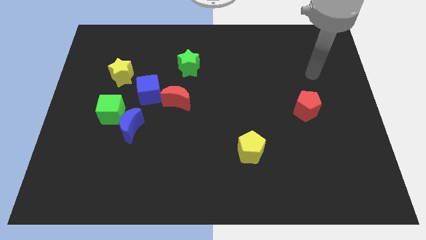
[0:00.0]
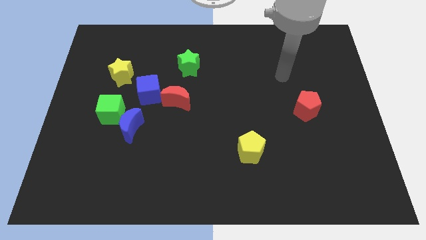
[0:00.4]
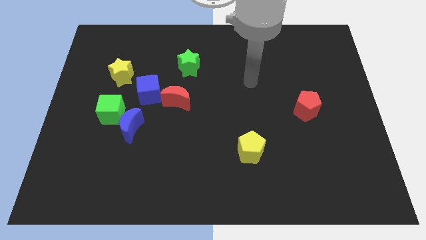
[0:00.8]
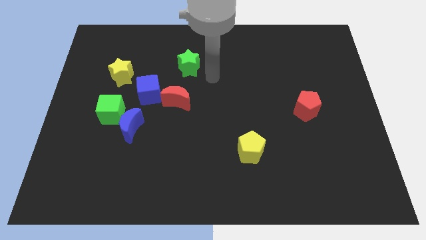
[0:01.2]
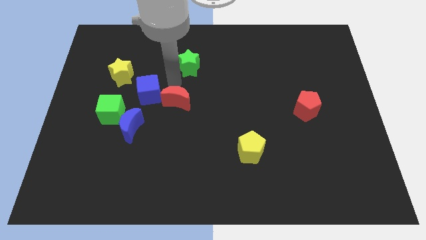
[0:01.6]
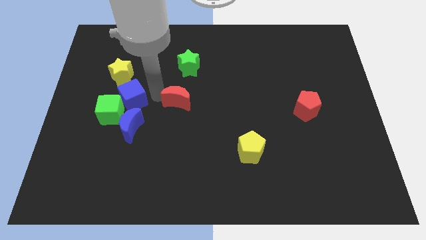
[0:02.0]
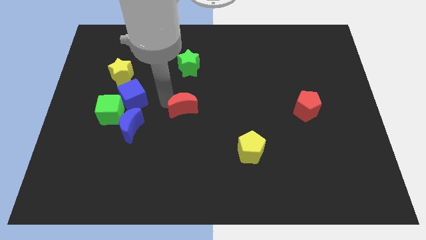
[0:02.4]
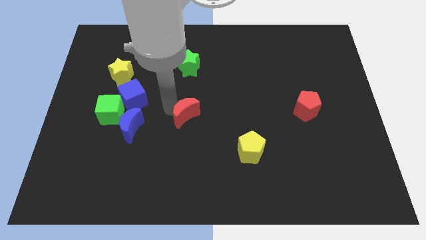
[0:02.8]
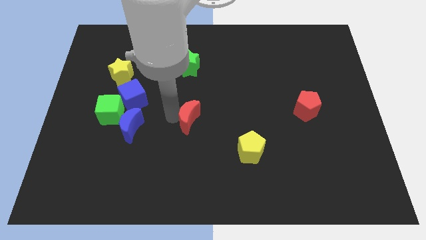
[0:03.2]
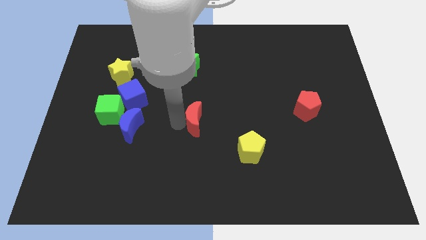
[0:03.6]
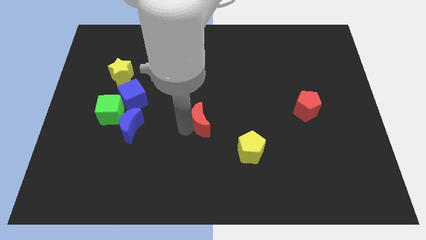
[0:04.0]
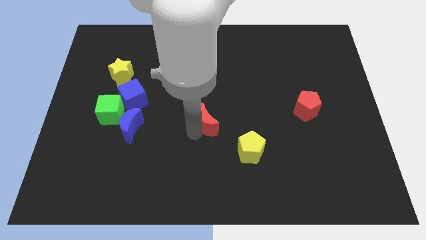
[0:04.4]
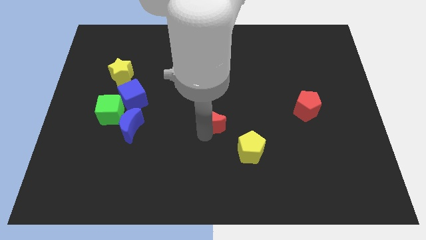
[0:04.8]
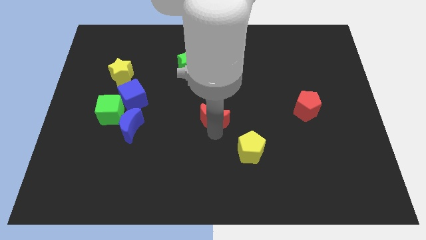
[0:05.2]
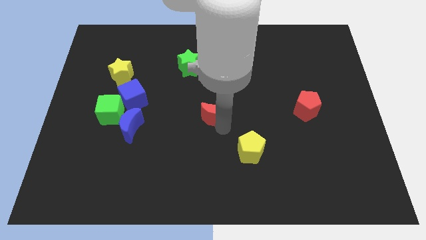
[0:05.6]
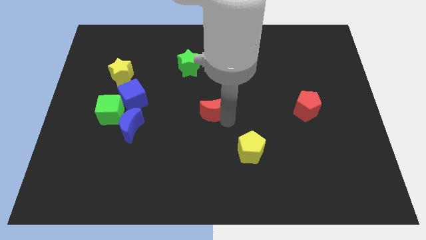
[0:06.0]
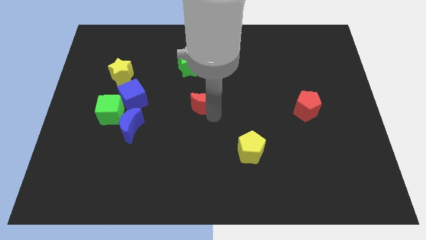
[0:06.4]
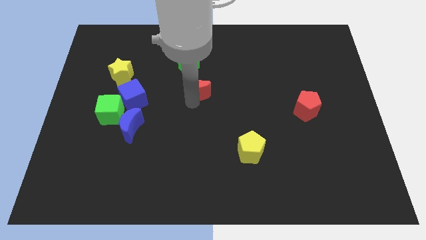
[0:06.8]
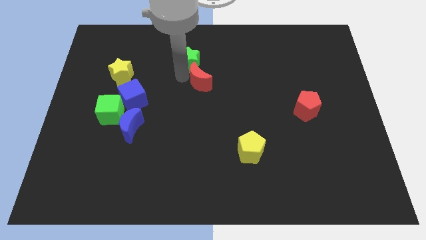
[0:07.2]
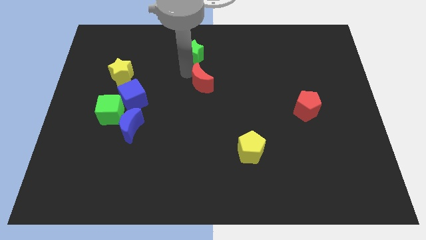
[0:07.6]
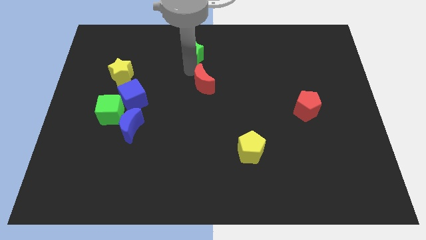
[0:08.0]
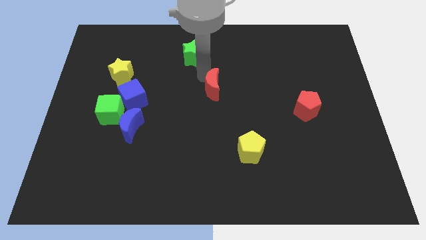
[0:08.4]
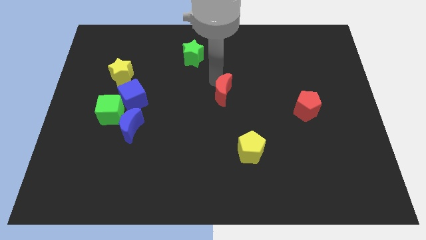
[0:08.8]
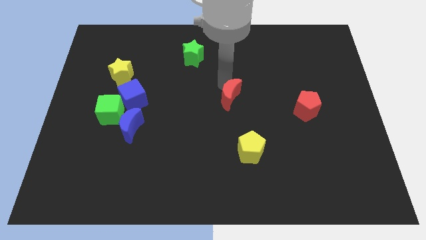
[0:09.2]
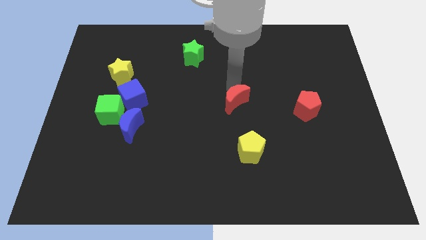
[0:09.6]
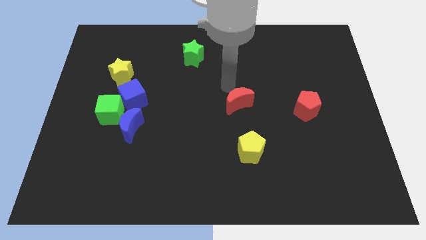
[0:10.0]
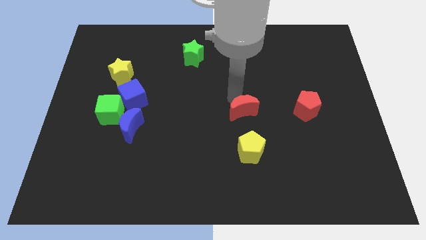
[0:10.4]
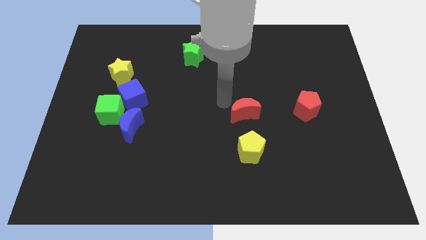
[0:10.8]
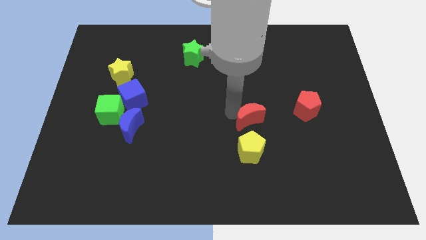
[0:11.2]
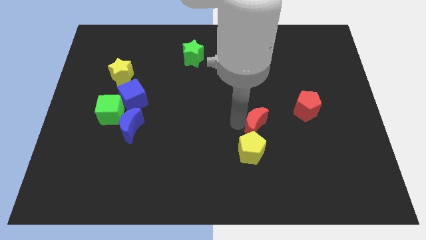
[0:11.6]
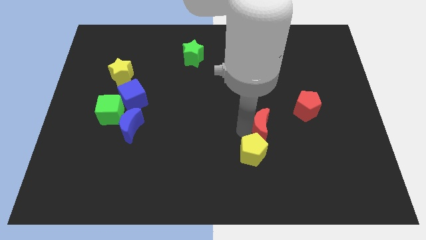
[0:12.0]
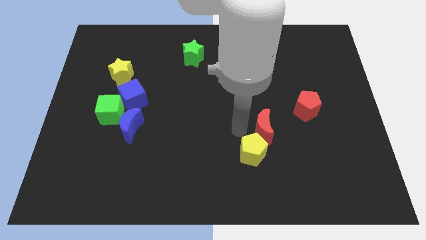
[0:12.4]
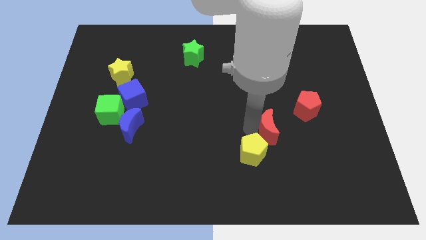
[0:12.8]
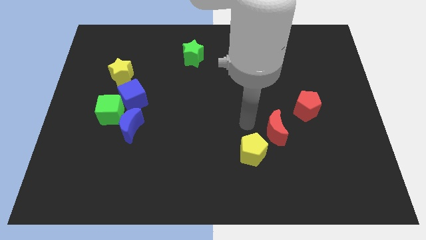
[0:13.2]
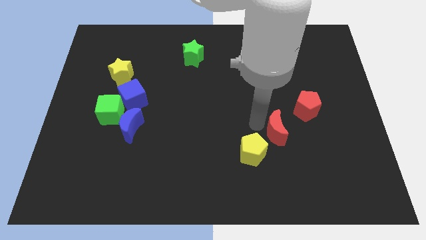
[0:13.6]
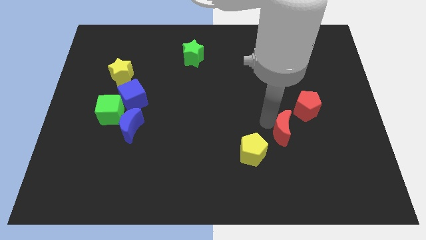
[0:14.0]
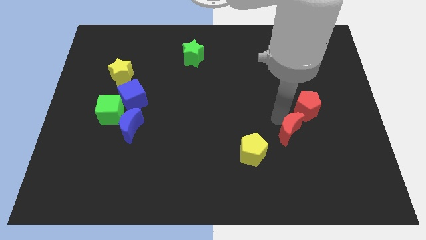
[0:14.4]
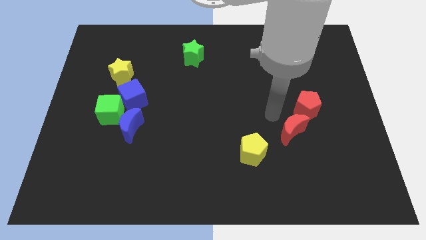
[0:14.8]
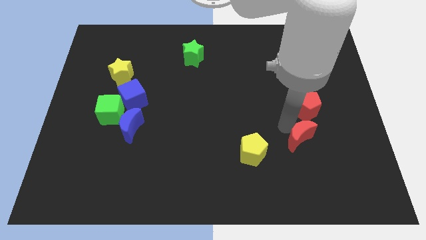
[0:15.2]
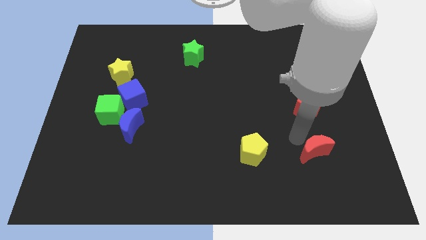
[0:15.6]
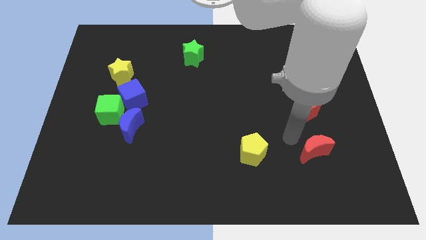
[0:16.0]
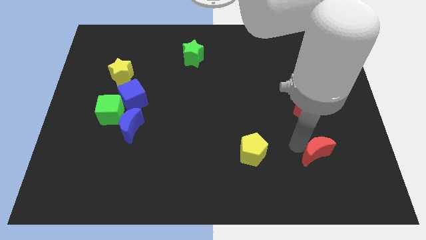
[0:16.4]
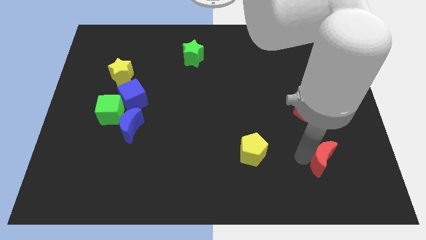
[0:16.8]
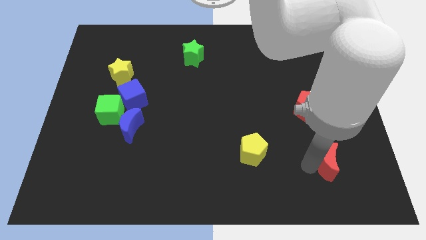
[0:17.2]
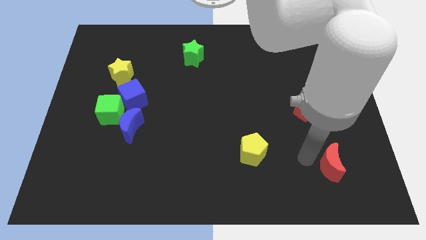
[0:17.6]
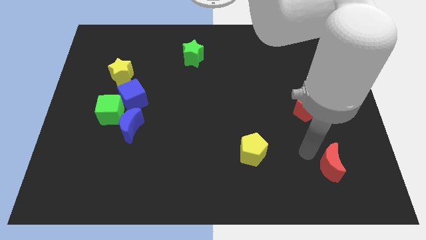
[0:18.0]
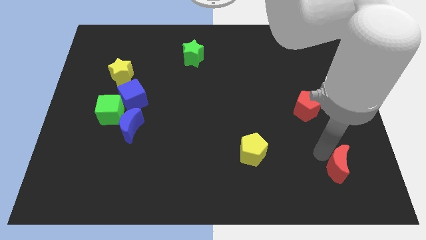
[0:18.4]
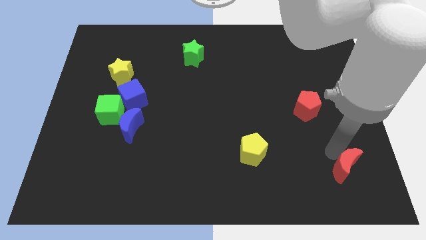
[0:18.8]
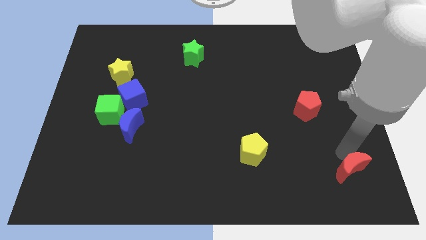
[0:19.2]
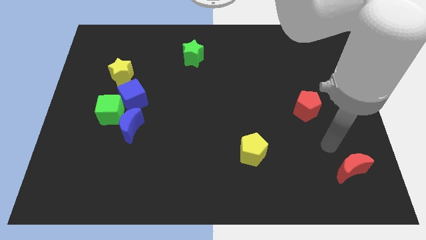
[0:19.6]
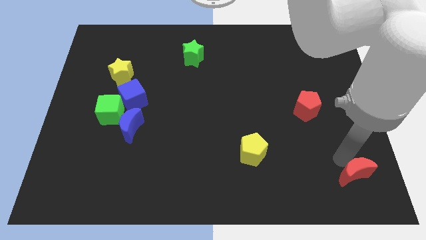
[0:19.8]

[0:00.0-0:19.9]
move the red moon to the bottom right of the board

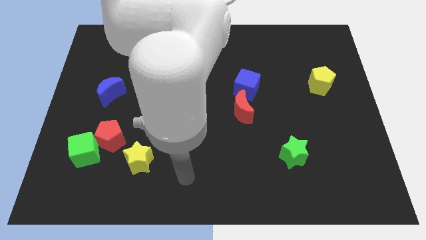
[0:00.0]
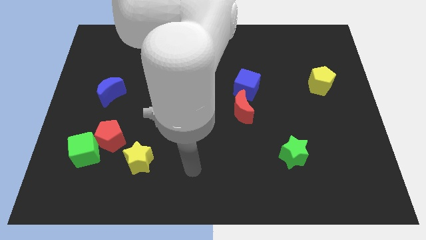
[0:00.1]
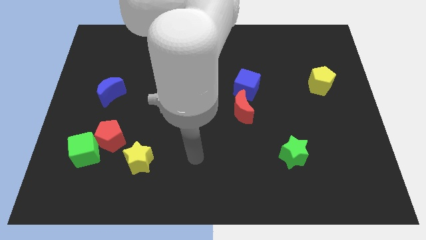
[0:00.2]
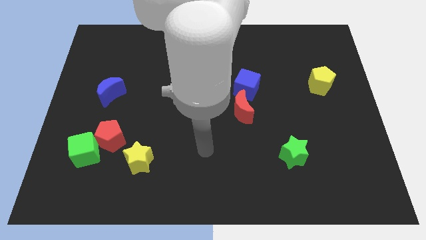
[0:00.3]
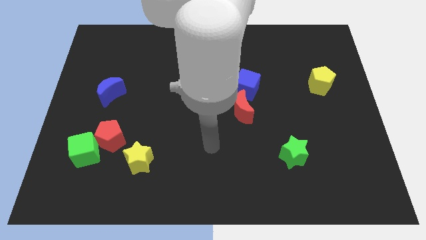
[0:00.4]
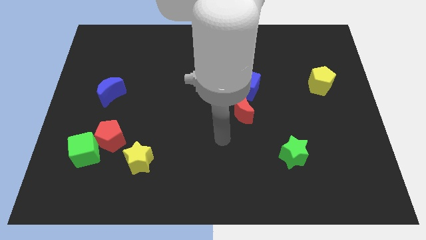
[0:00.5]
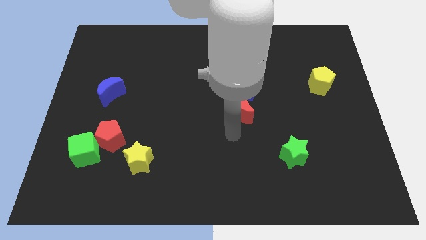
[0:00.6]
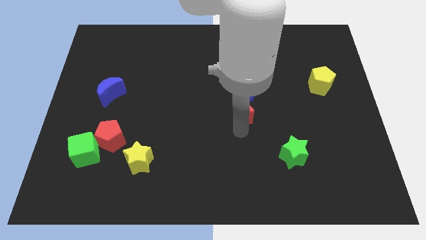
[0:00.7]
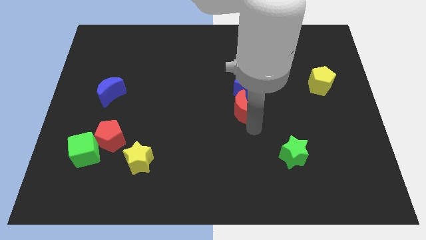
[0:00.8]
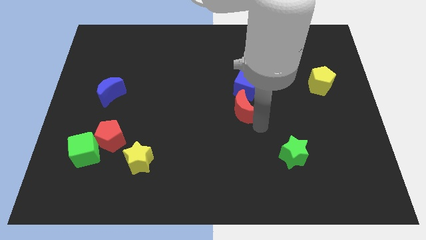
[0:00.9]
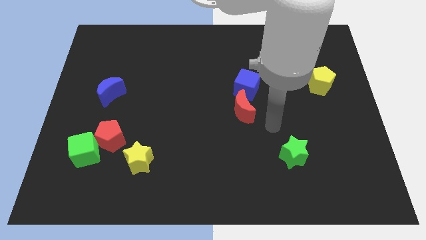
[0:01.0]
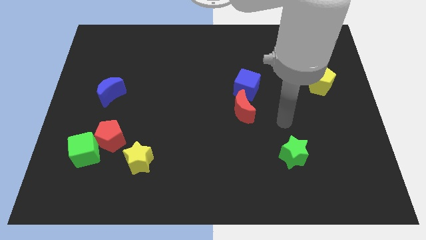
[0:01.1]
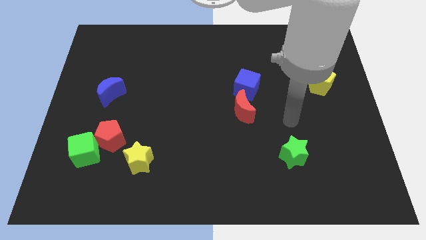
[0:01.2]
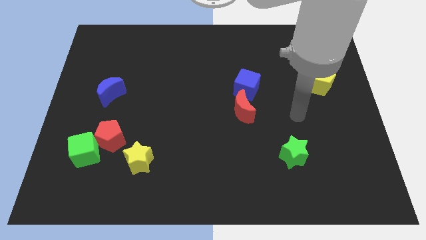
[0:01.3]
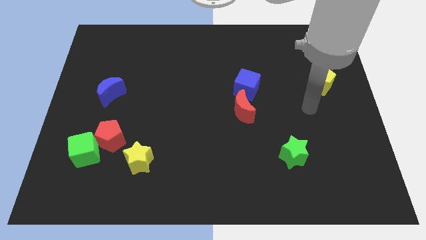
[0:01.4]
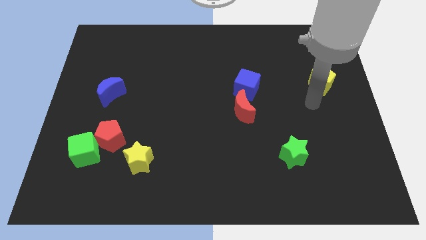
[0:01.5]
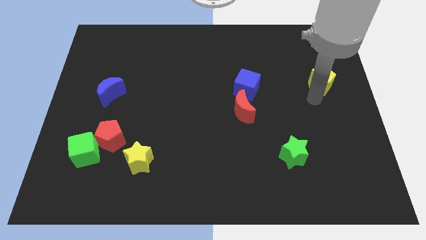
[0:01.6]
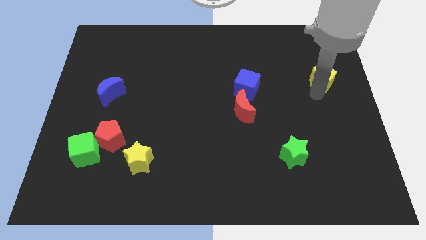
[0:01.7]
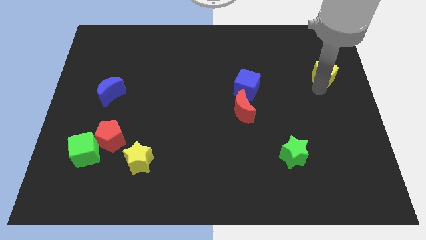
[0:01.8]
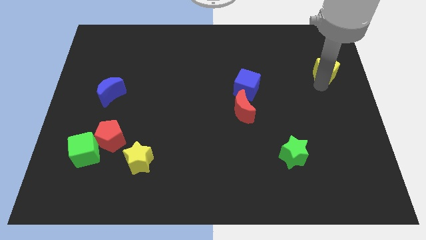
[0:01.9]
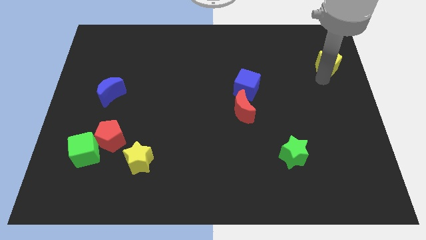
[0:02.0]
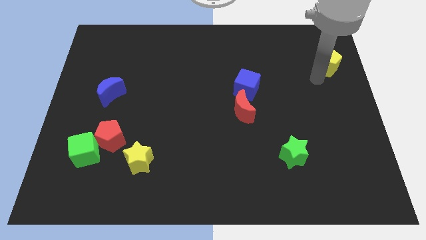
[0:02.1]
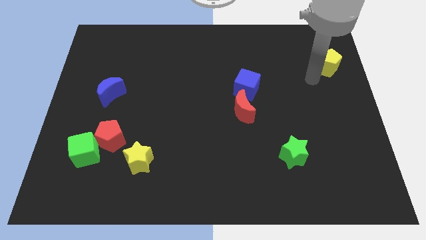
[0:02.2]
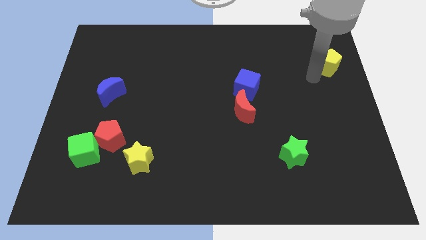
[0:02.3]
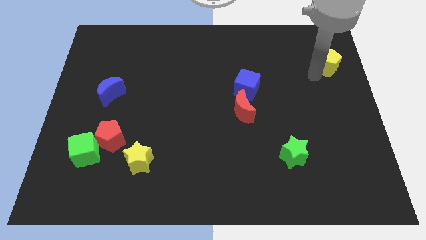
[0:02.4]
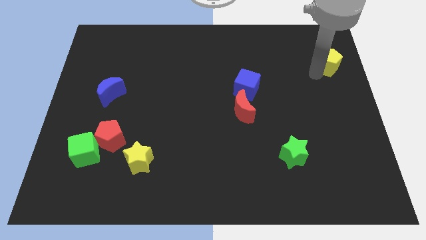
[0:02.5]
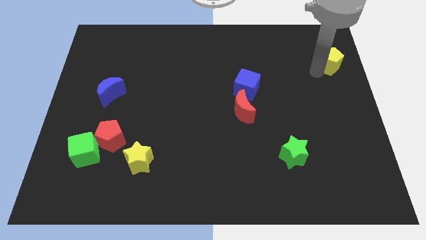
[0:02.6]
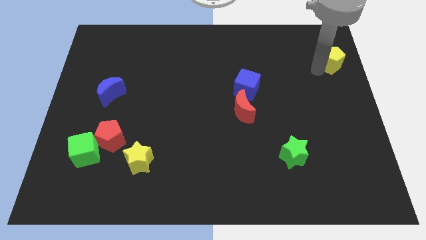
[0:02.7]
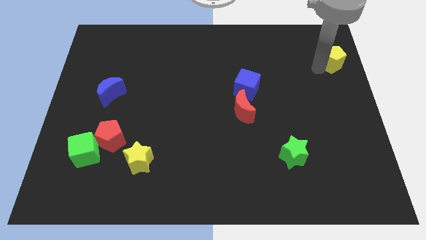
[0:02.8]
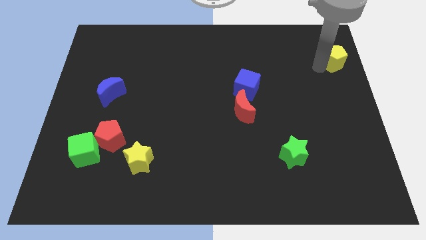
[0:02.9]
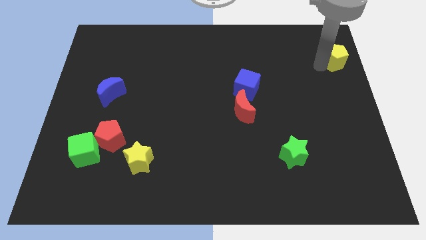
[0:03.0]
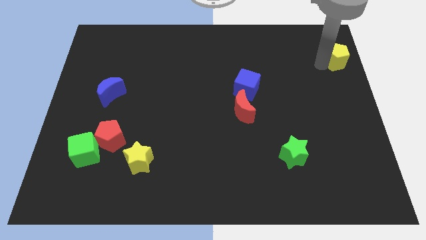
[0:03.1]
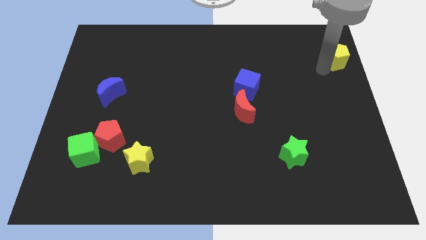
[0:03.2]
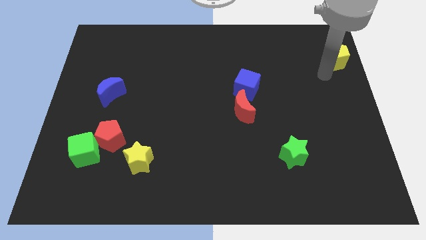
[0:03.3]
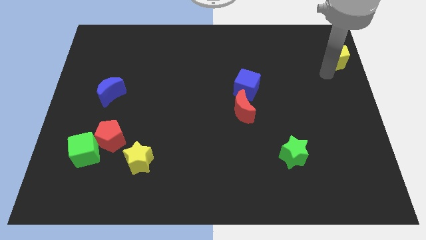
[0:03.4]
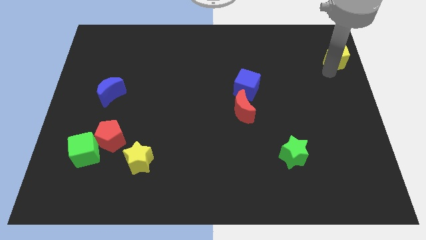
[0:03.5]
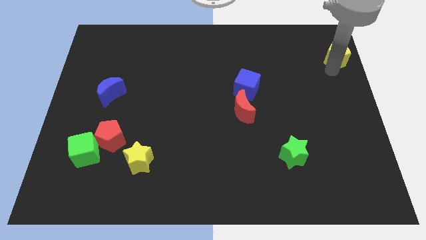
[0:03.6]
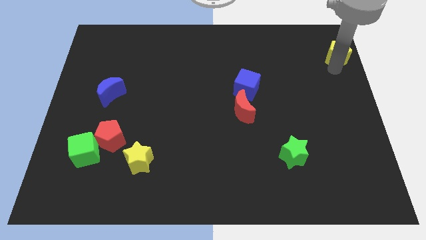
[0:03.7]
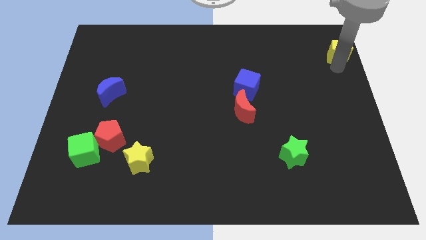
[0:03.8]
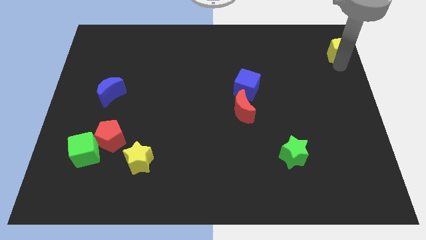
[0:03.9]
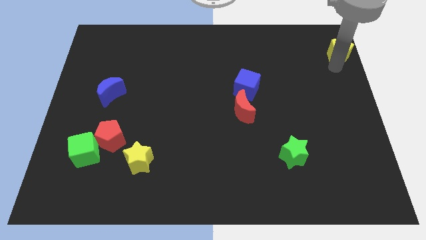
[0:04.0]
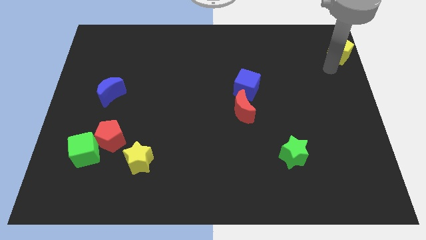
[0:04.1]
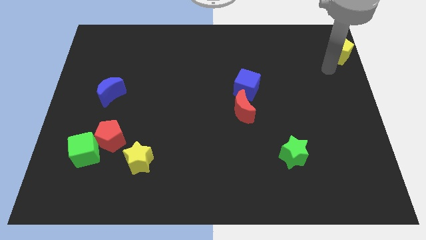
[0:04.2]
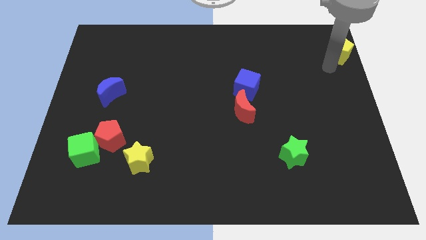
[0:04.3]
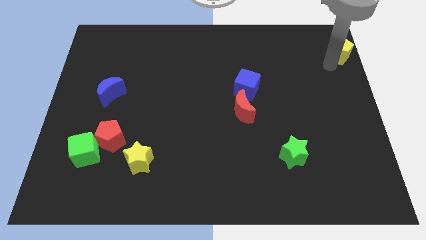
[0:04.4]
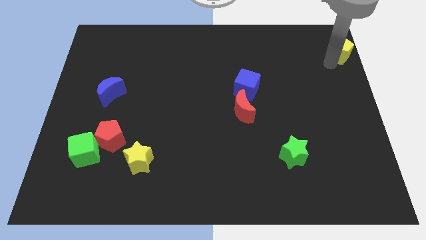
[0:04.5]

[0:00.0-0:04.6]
slide the yellow pentagon to the top right
